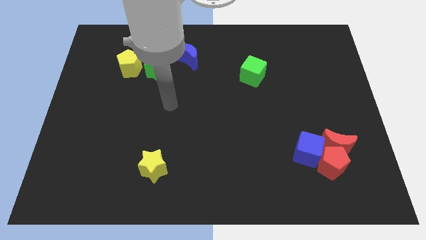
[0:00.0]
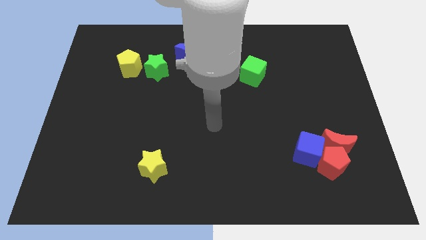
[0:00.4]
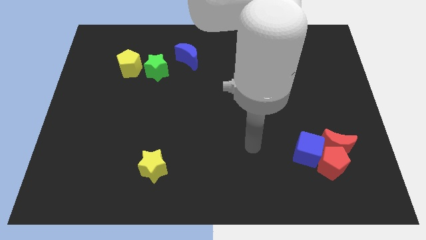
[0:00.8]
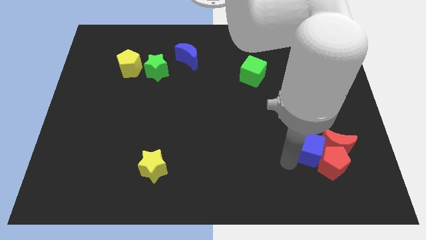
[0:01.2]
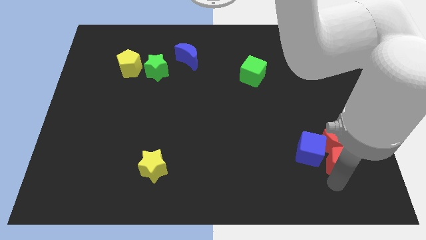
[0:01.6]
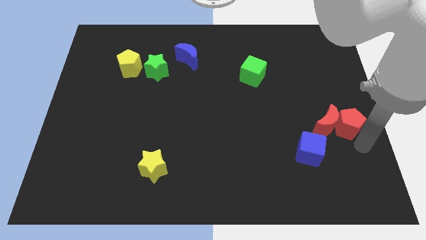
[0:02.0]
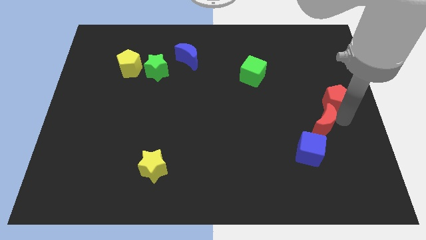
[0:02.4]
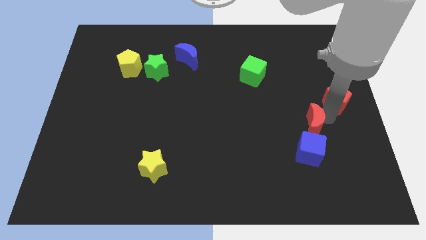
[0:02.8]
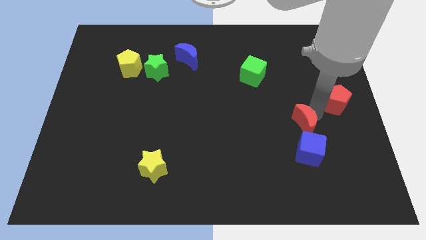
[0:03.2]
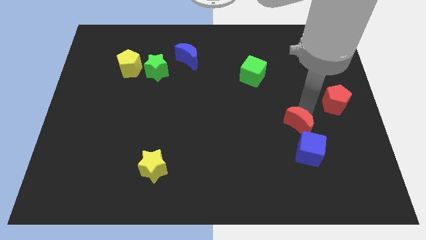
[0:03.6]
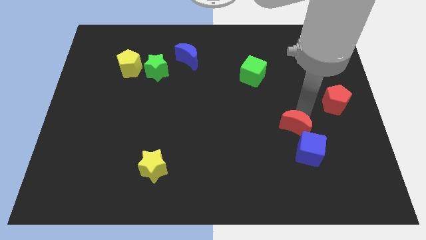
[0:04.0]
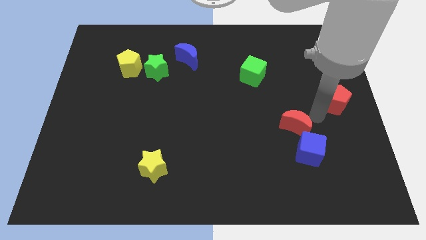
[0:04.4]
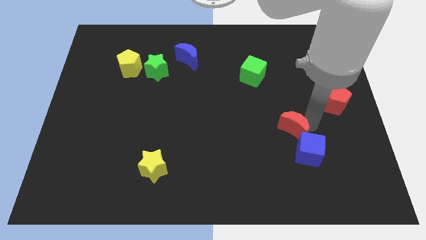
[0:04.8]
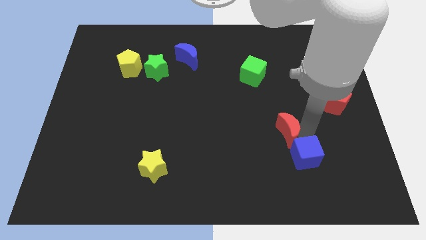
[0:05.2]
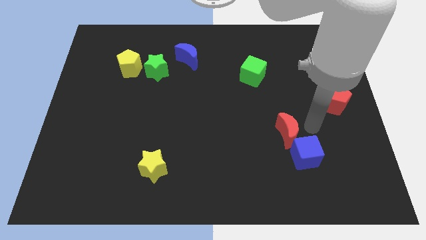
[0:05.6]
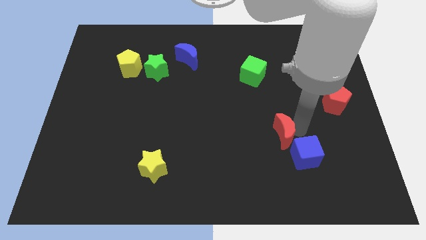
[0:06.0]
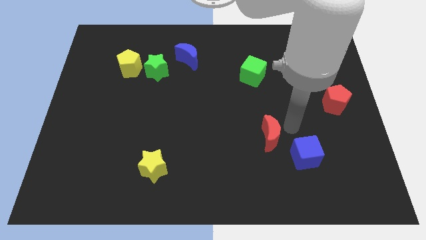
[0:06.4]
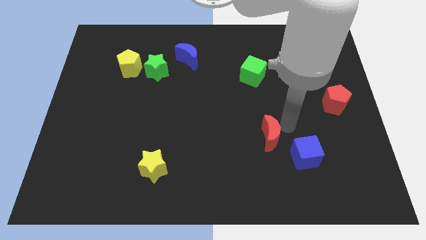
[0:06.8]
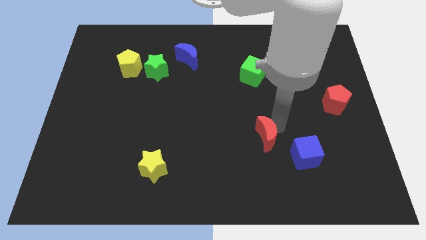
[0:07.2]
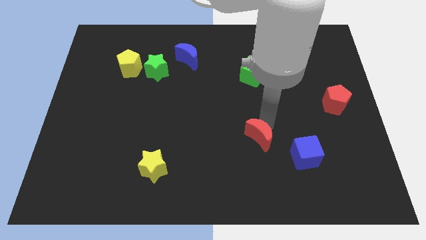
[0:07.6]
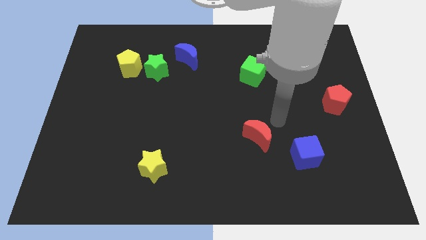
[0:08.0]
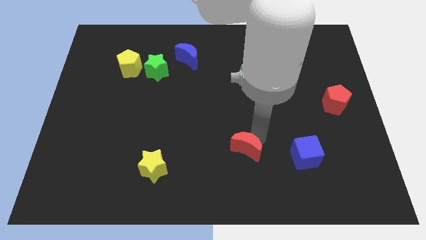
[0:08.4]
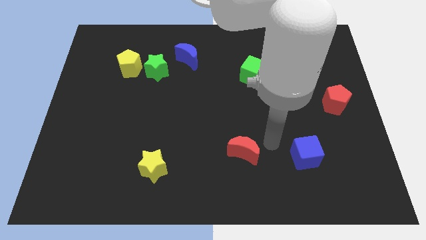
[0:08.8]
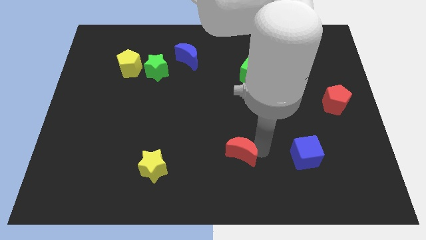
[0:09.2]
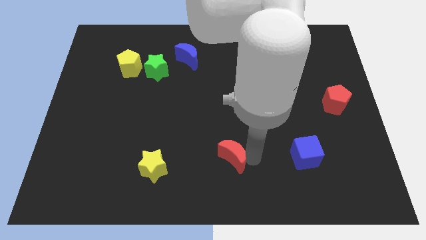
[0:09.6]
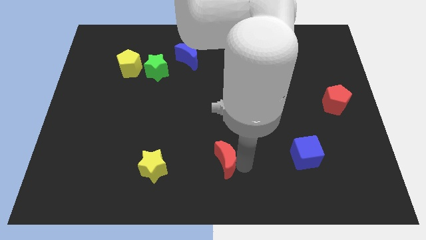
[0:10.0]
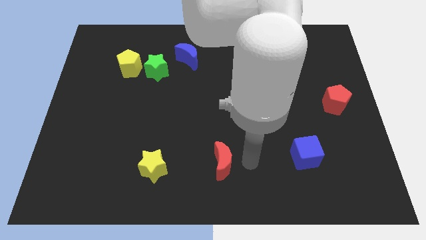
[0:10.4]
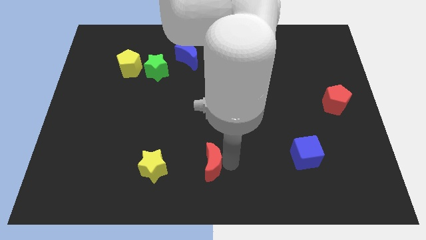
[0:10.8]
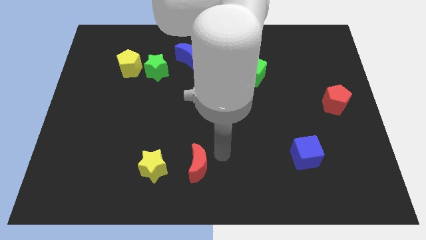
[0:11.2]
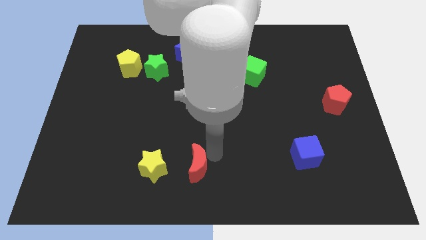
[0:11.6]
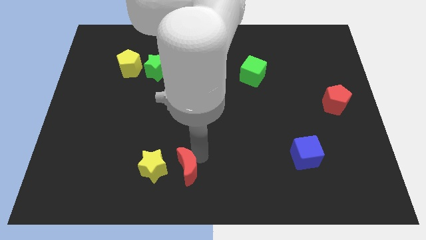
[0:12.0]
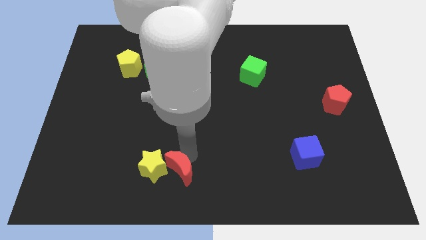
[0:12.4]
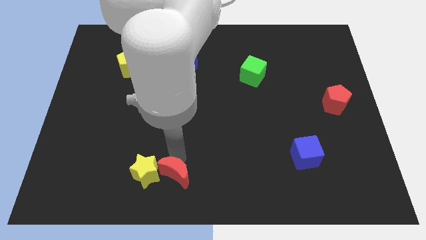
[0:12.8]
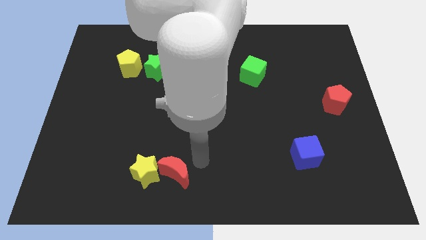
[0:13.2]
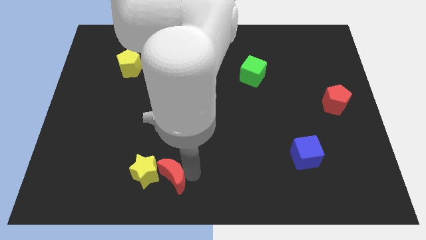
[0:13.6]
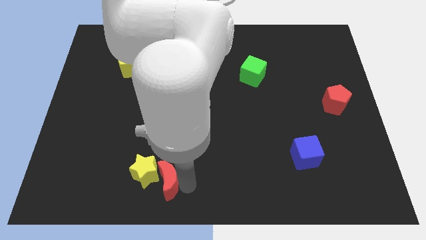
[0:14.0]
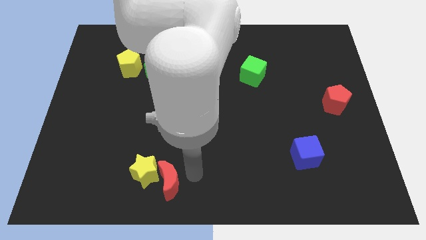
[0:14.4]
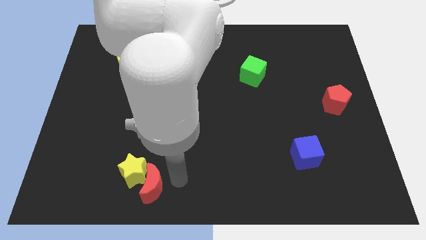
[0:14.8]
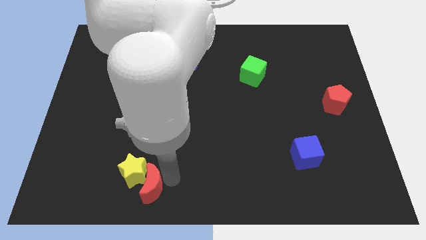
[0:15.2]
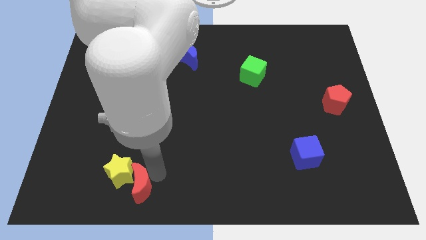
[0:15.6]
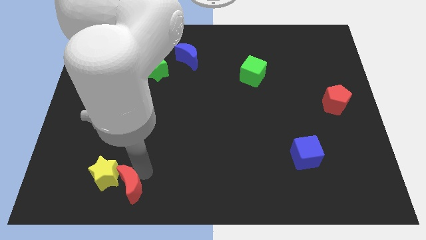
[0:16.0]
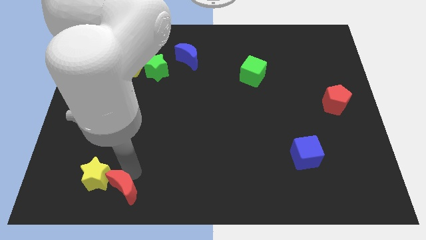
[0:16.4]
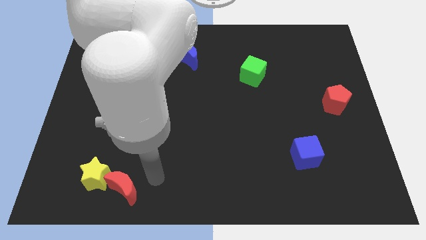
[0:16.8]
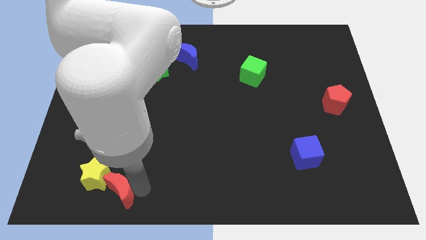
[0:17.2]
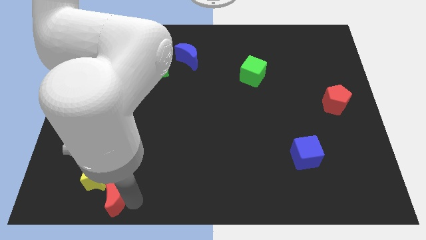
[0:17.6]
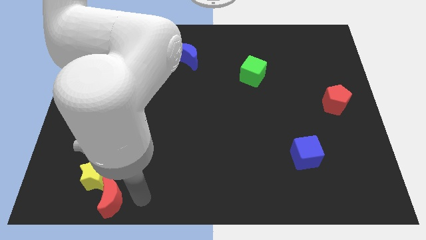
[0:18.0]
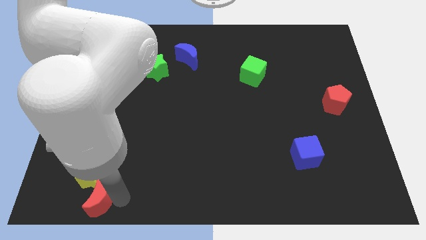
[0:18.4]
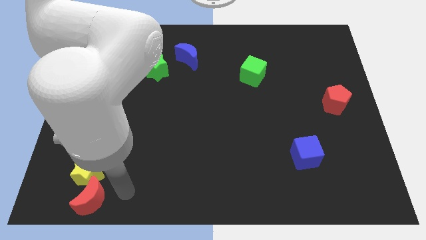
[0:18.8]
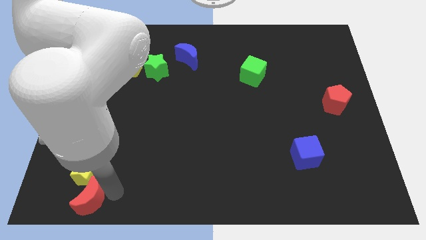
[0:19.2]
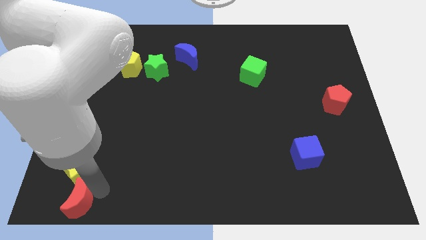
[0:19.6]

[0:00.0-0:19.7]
move the red moon to the lower left corner

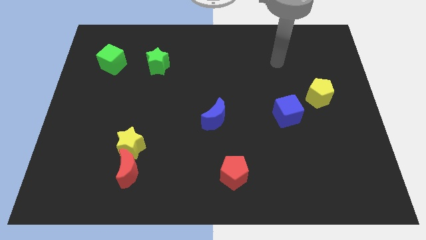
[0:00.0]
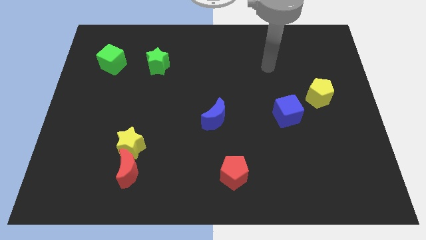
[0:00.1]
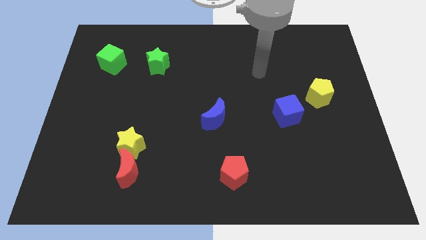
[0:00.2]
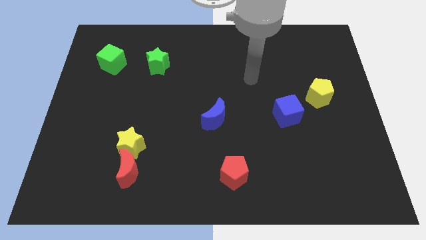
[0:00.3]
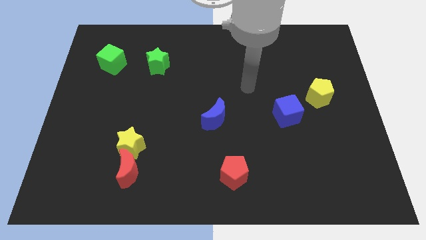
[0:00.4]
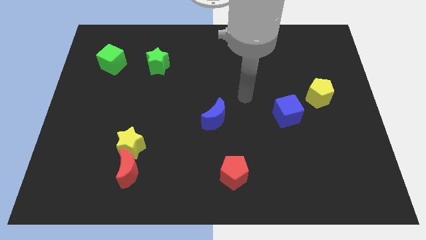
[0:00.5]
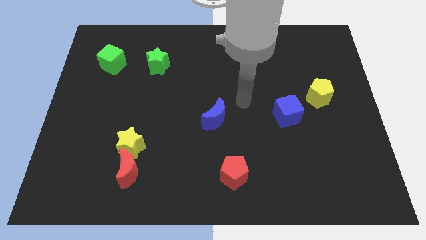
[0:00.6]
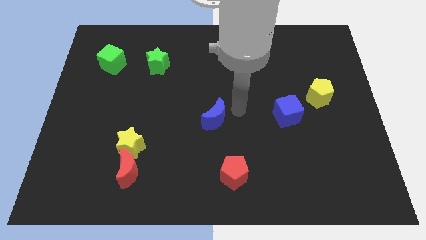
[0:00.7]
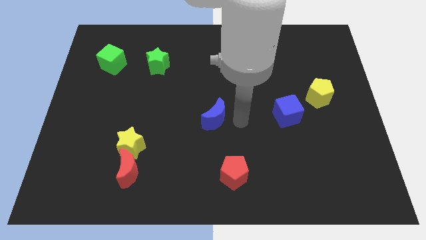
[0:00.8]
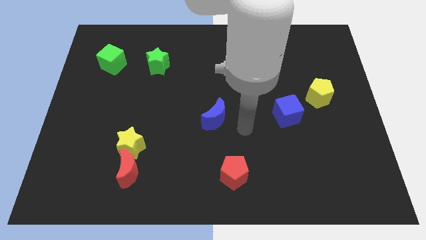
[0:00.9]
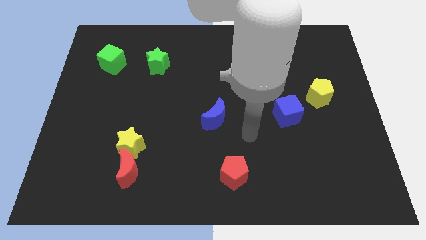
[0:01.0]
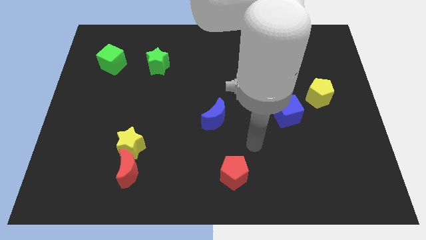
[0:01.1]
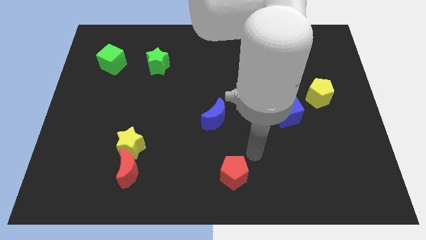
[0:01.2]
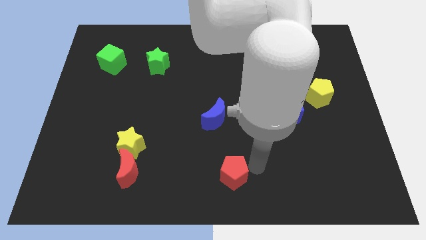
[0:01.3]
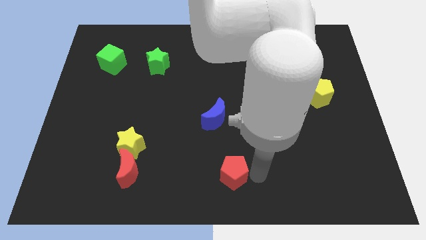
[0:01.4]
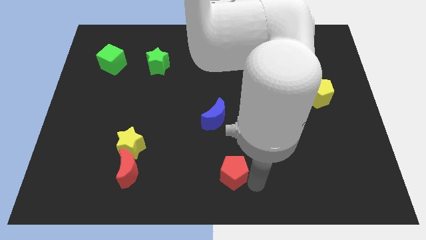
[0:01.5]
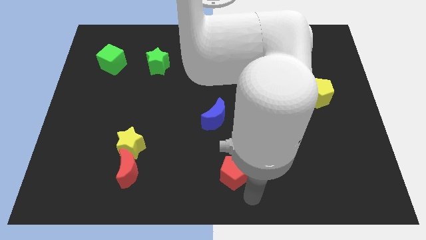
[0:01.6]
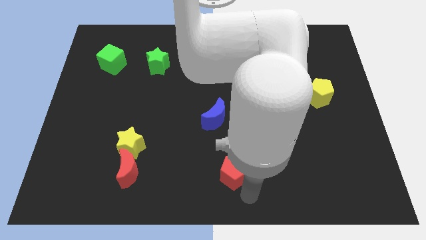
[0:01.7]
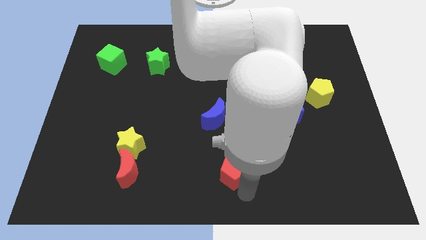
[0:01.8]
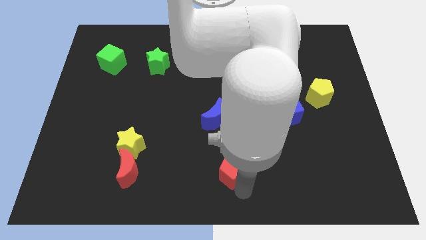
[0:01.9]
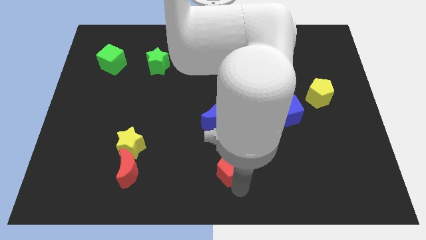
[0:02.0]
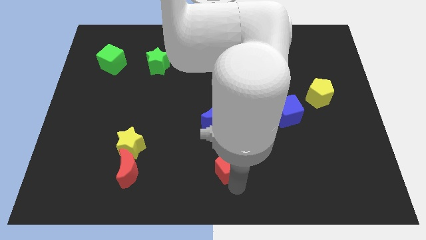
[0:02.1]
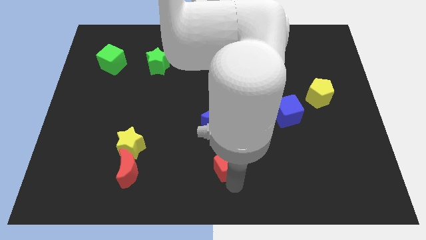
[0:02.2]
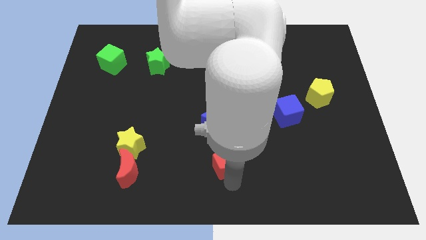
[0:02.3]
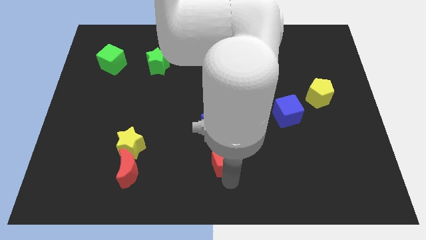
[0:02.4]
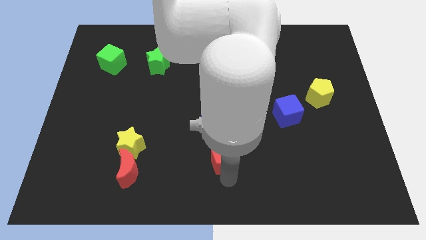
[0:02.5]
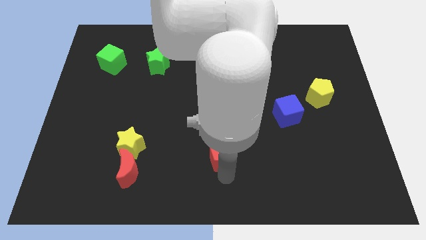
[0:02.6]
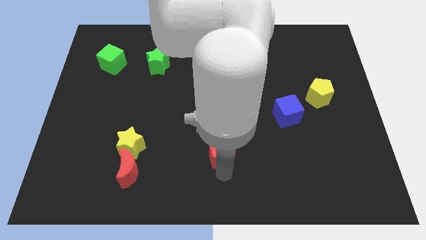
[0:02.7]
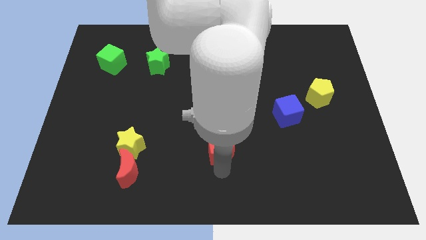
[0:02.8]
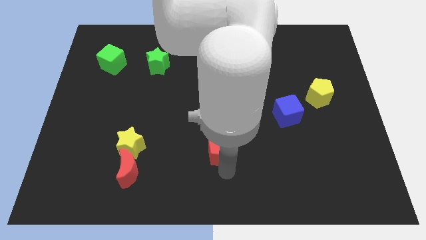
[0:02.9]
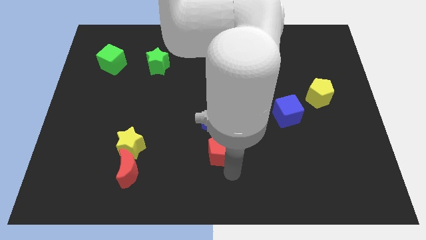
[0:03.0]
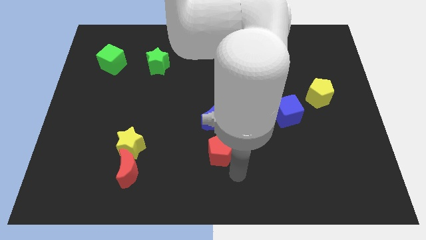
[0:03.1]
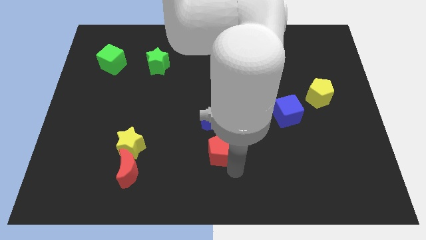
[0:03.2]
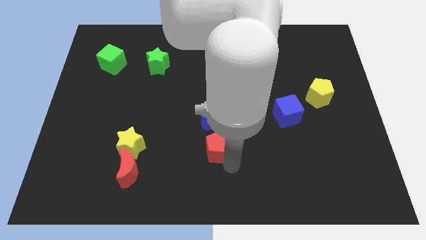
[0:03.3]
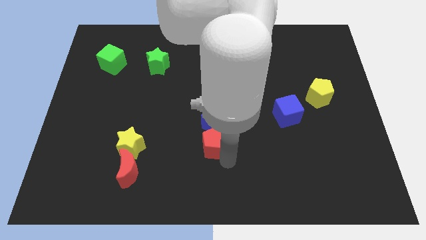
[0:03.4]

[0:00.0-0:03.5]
put the red pentagon to the center
